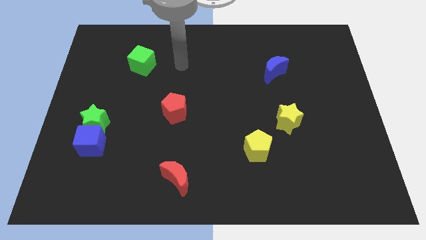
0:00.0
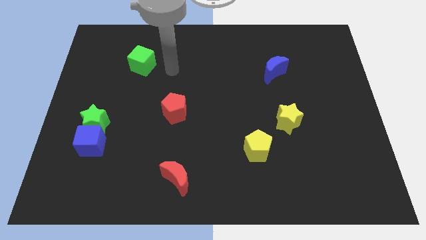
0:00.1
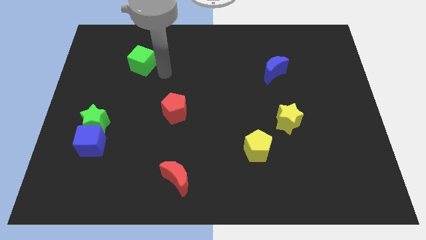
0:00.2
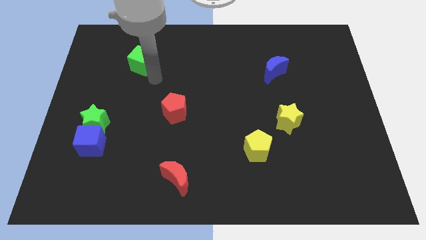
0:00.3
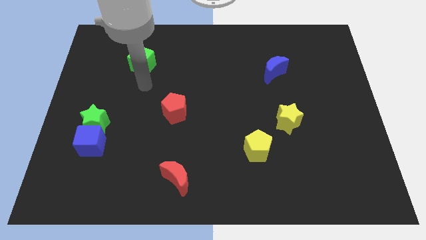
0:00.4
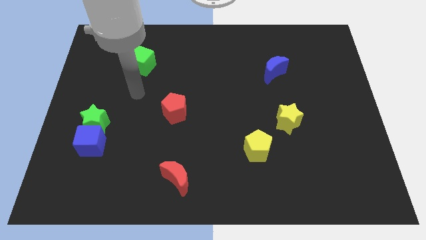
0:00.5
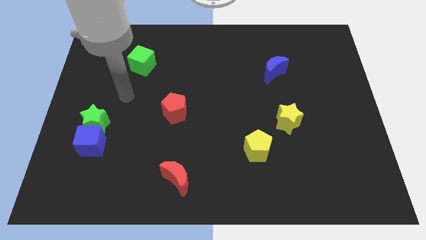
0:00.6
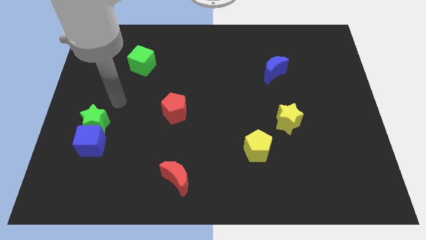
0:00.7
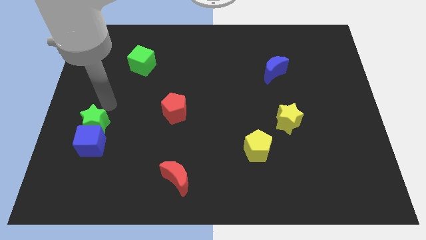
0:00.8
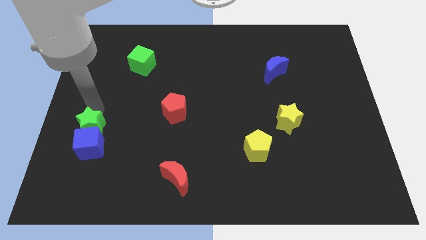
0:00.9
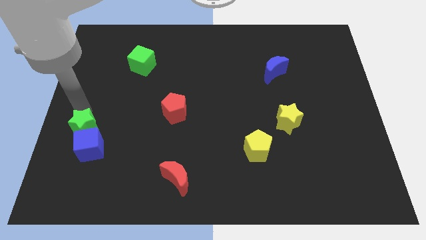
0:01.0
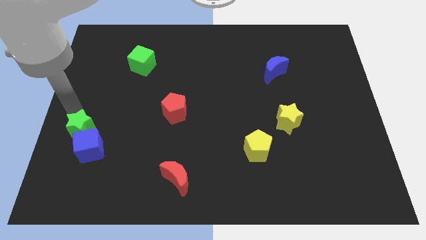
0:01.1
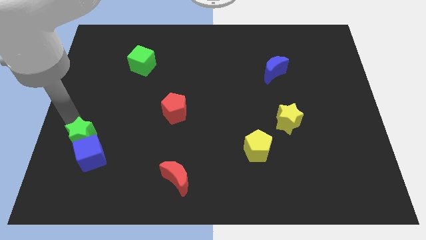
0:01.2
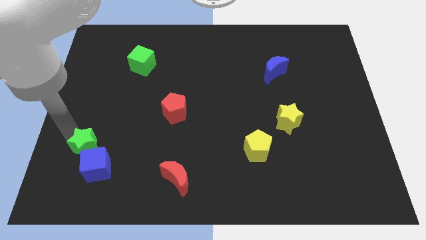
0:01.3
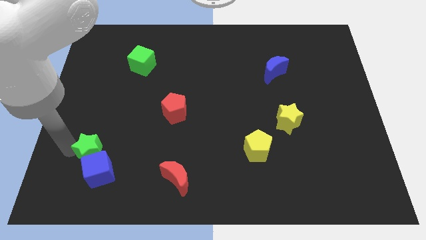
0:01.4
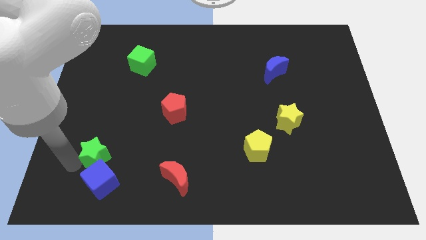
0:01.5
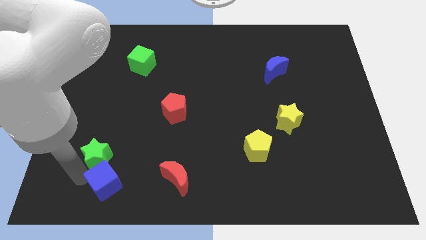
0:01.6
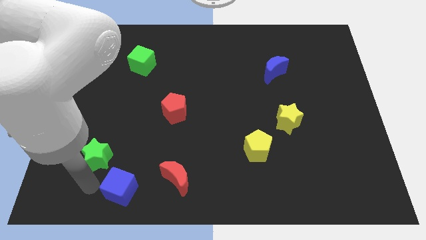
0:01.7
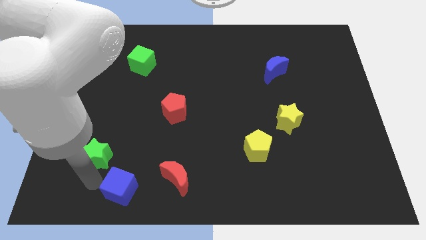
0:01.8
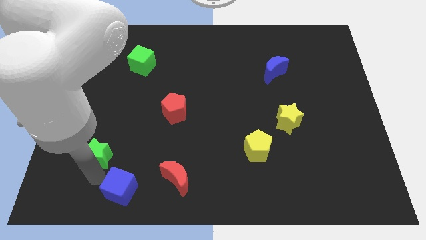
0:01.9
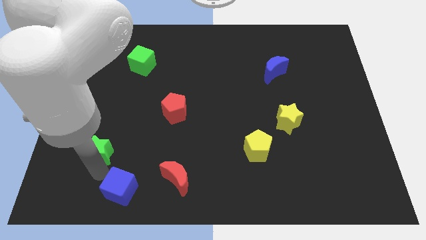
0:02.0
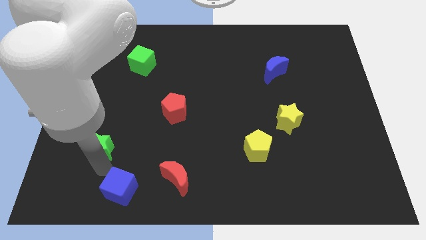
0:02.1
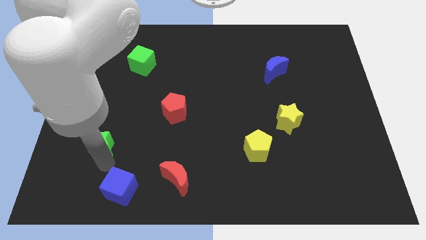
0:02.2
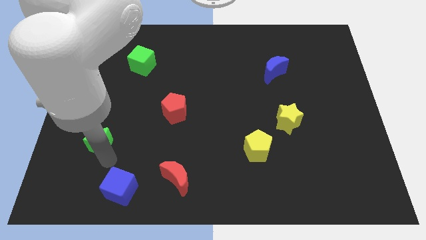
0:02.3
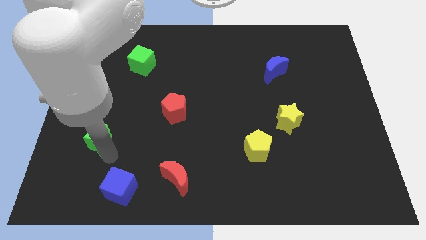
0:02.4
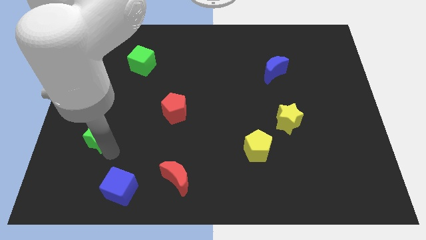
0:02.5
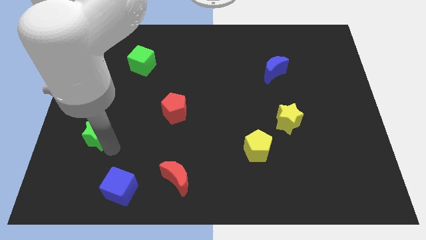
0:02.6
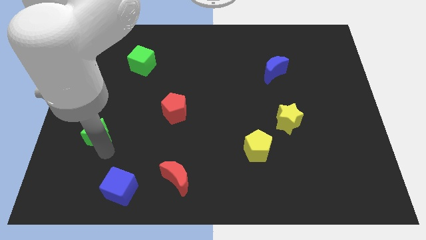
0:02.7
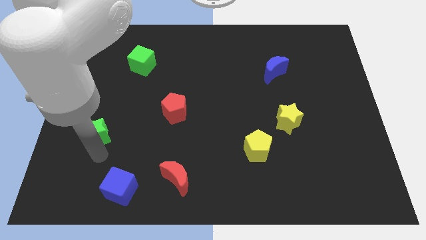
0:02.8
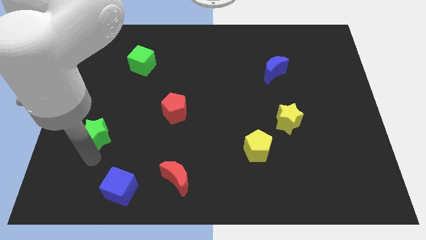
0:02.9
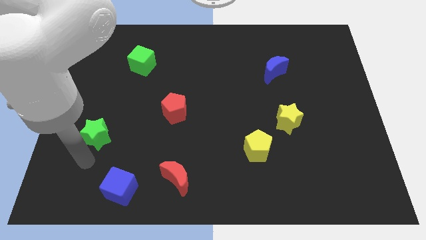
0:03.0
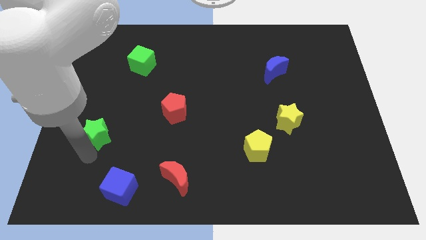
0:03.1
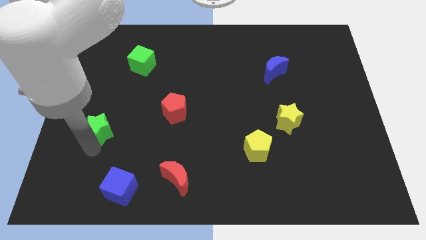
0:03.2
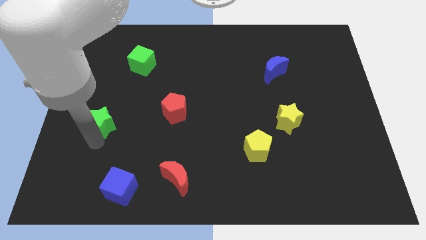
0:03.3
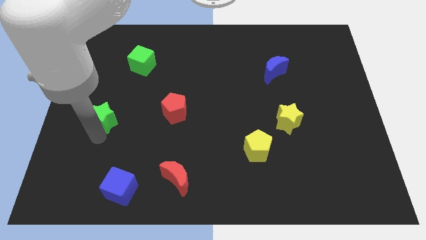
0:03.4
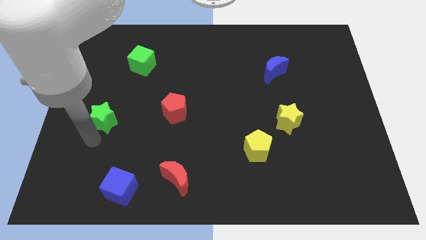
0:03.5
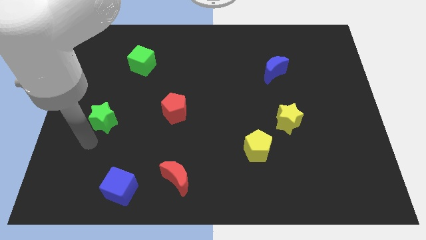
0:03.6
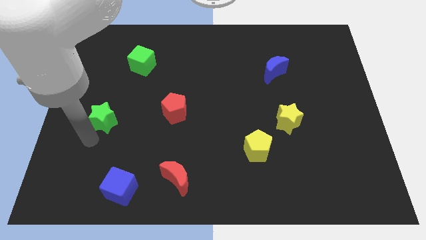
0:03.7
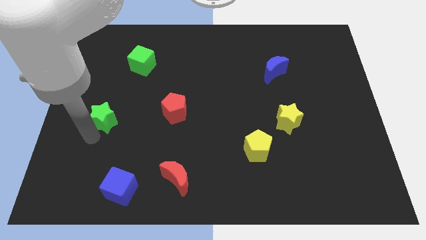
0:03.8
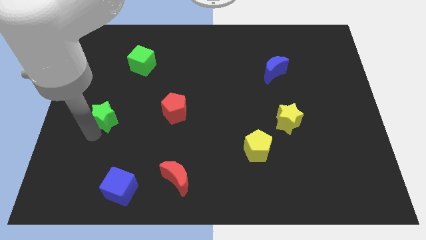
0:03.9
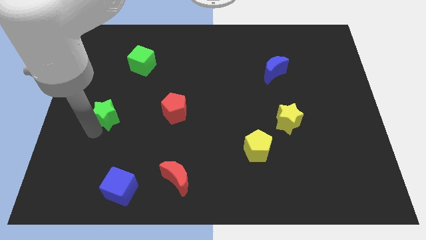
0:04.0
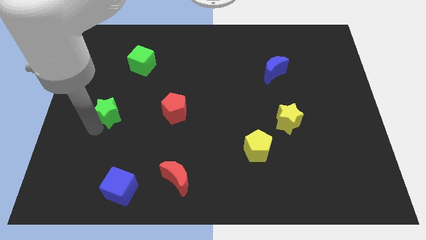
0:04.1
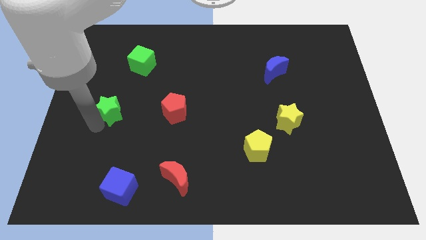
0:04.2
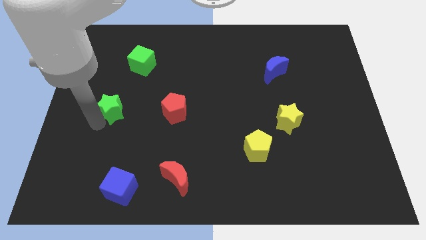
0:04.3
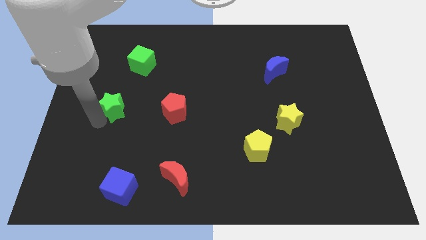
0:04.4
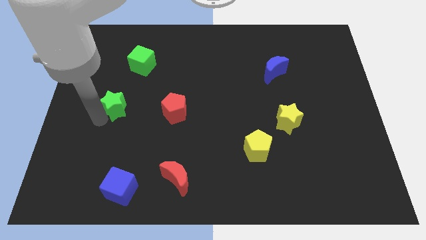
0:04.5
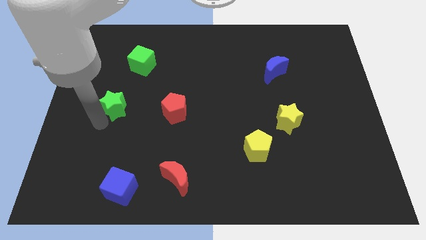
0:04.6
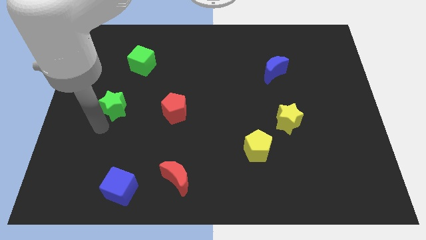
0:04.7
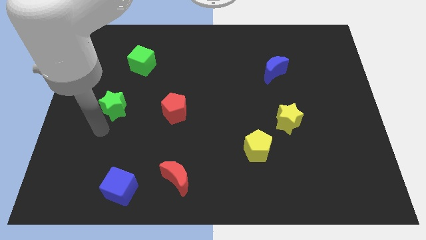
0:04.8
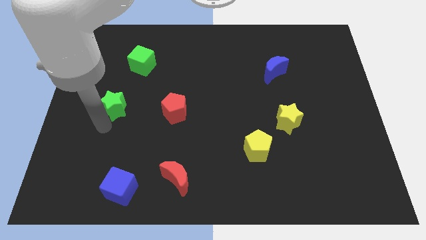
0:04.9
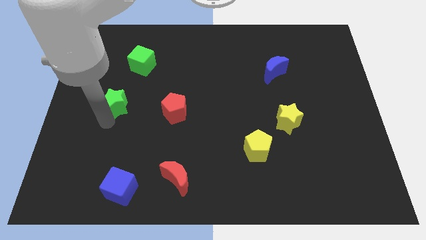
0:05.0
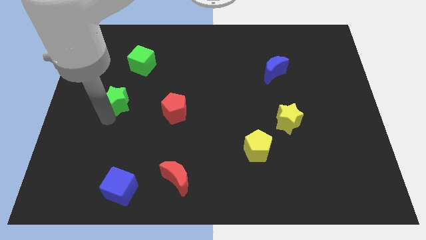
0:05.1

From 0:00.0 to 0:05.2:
slightly push the green star up and then right

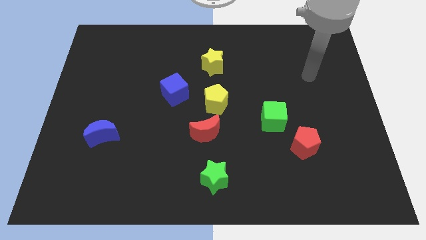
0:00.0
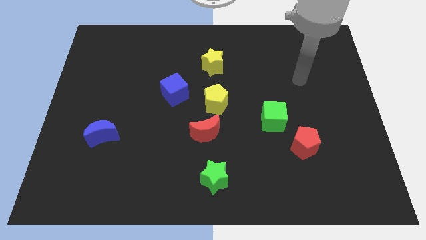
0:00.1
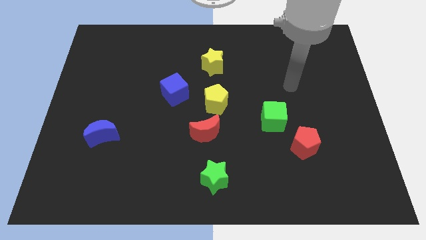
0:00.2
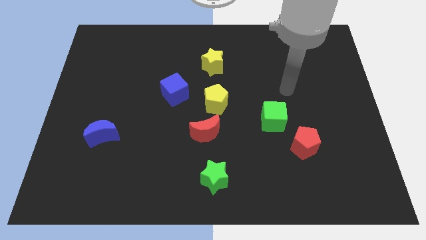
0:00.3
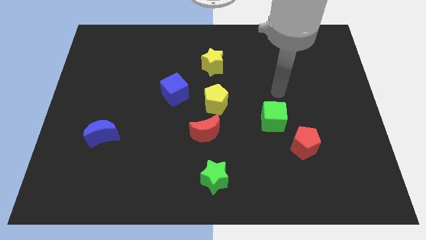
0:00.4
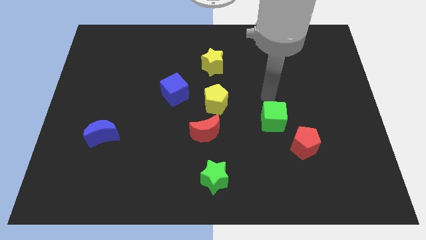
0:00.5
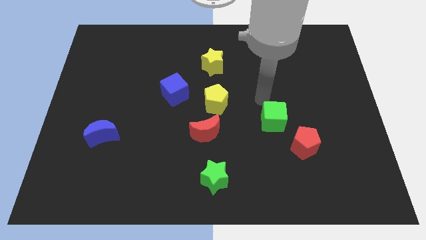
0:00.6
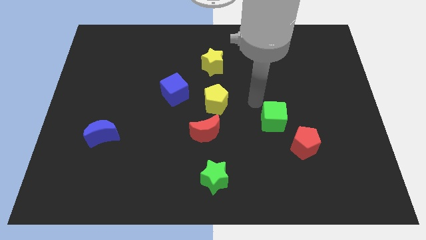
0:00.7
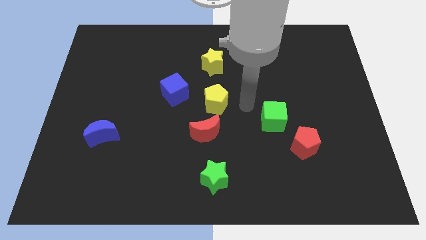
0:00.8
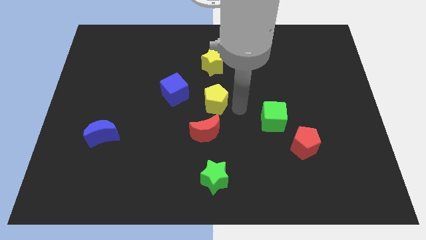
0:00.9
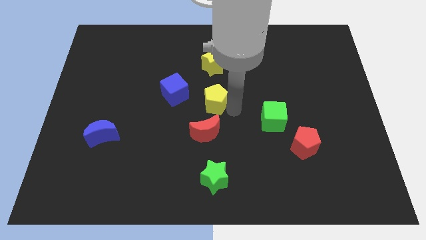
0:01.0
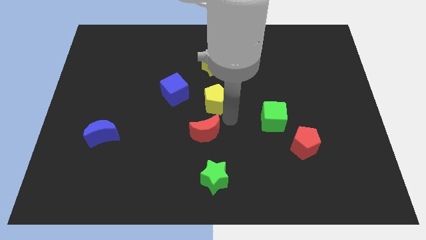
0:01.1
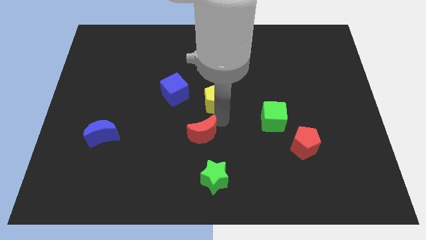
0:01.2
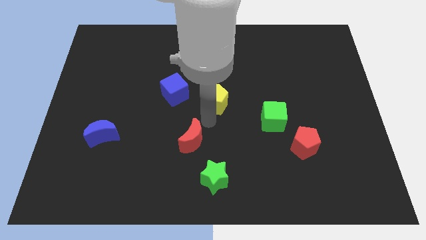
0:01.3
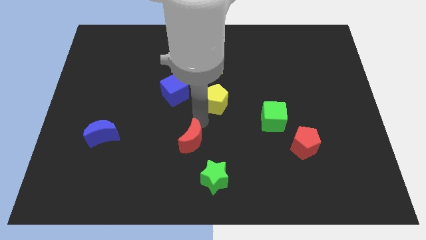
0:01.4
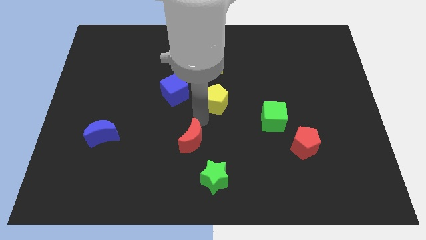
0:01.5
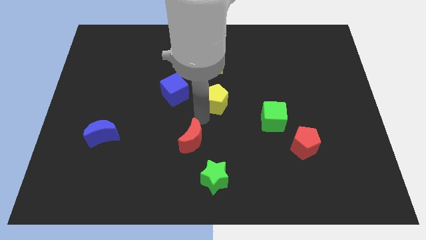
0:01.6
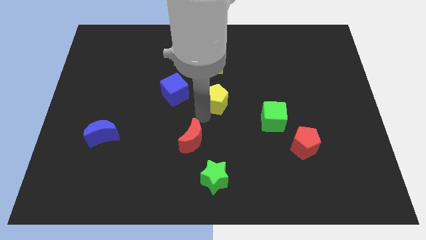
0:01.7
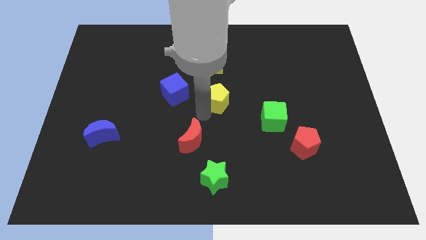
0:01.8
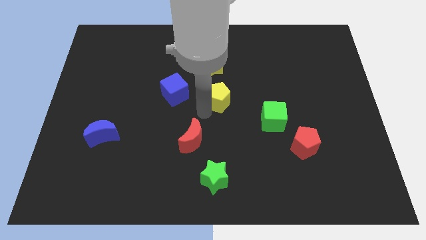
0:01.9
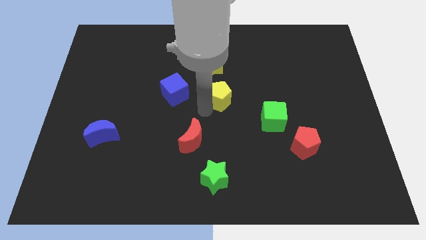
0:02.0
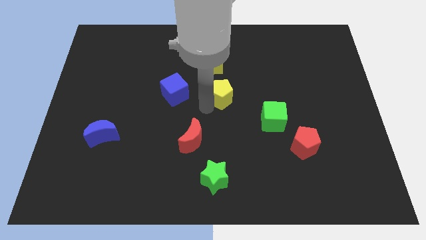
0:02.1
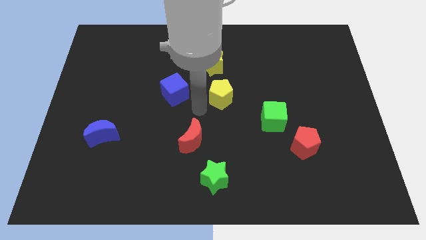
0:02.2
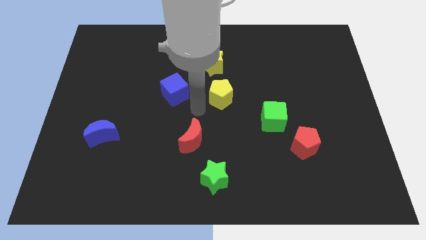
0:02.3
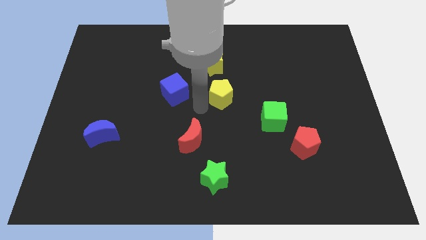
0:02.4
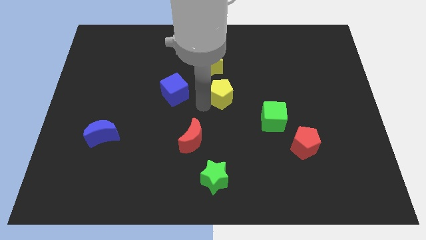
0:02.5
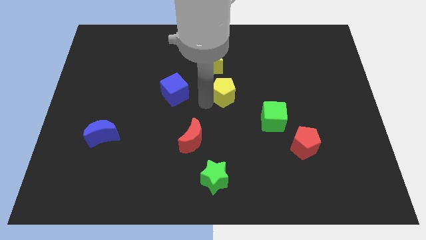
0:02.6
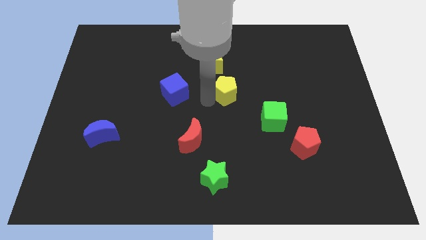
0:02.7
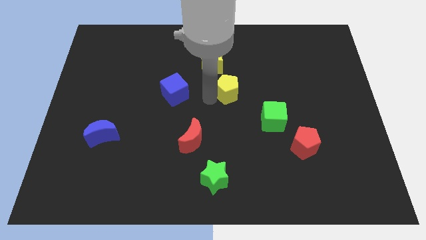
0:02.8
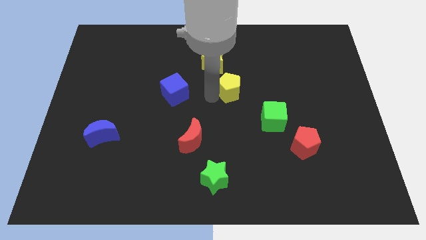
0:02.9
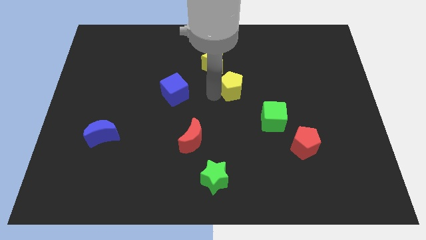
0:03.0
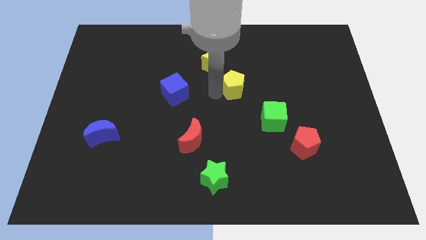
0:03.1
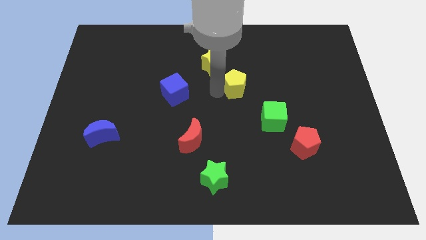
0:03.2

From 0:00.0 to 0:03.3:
slide the yellow pentagon slightly upwards and to the right diagonally

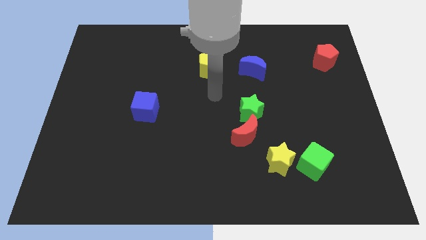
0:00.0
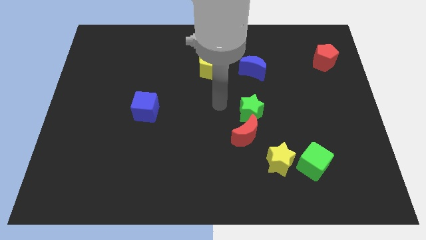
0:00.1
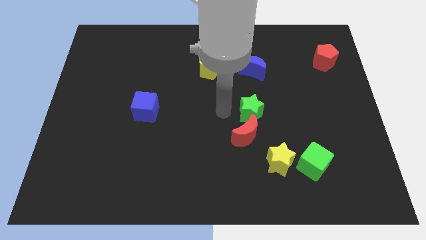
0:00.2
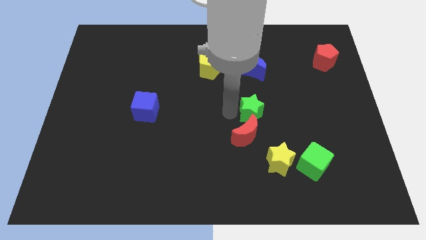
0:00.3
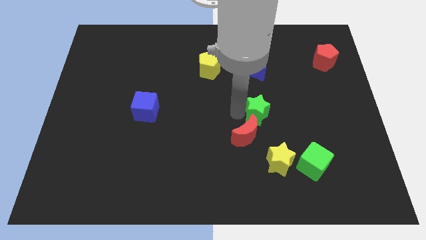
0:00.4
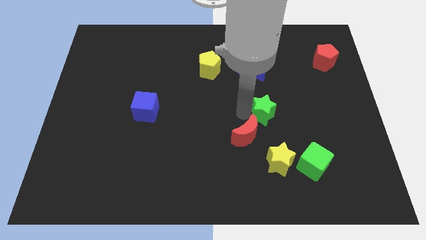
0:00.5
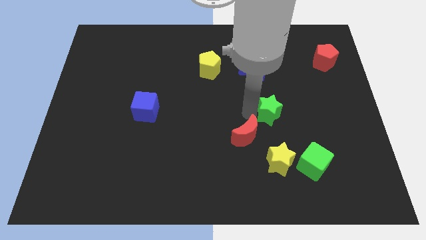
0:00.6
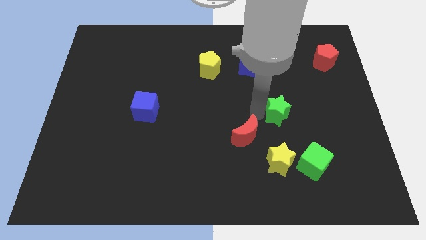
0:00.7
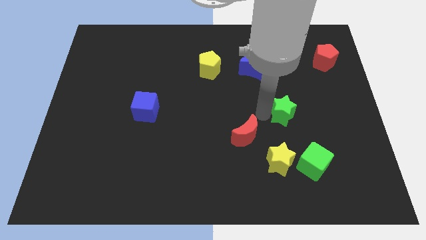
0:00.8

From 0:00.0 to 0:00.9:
push the green star slightly to the right
